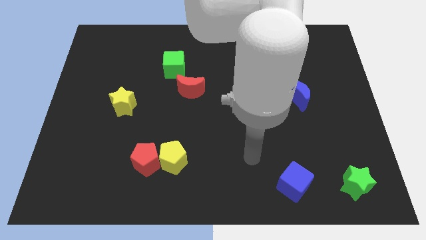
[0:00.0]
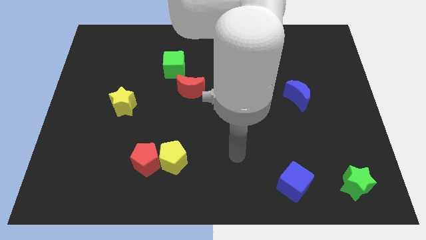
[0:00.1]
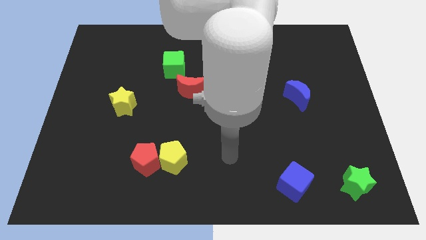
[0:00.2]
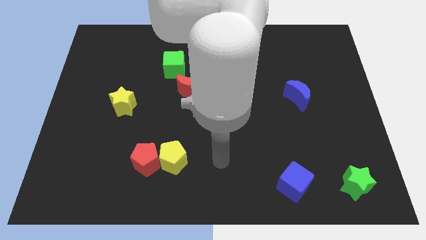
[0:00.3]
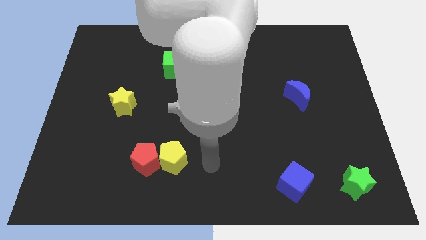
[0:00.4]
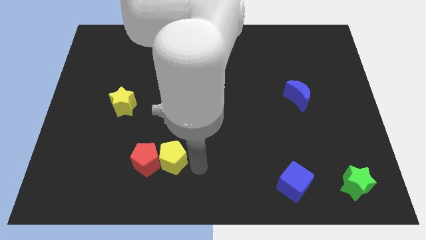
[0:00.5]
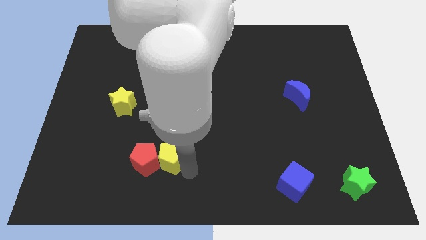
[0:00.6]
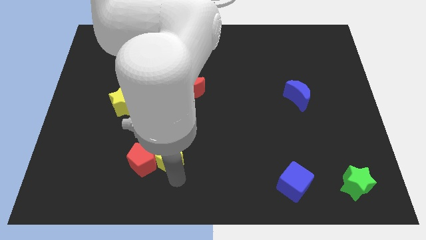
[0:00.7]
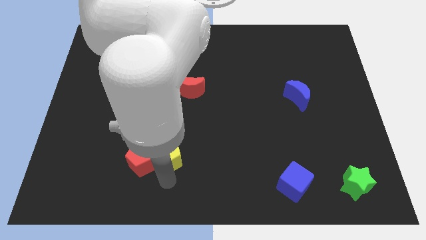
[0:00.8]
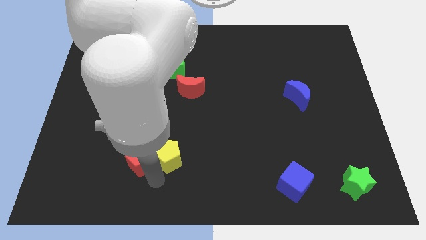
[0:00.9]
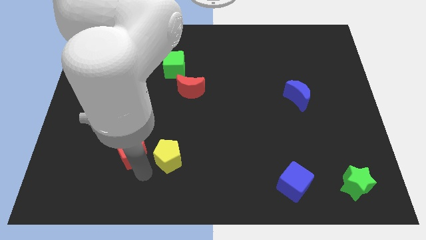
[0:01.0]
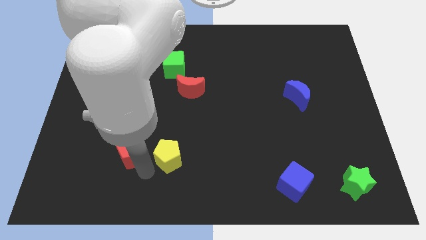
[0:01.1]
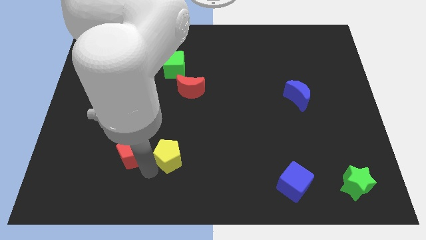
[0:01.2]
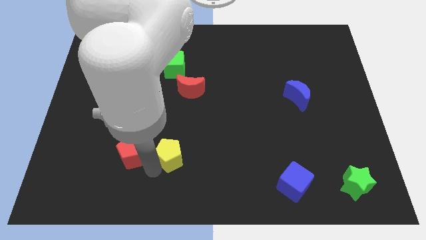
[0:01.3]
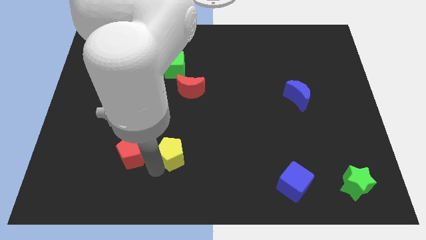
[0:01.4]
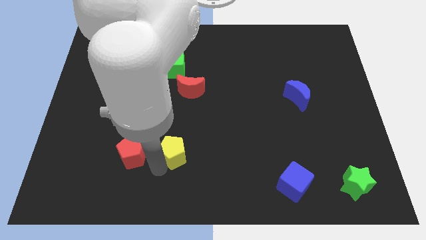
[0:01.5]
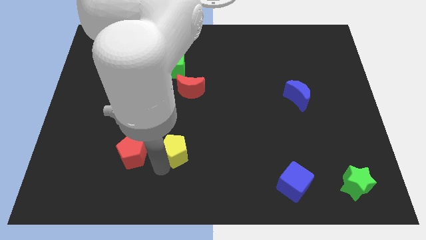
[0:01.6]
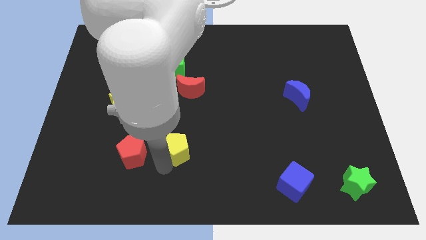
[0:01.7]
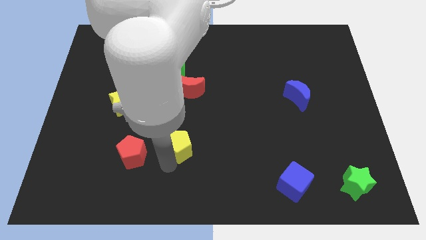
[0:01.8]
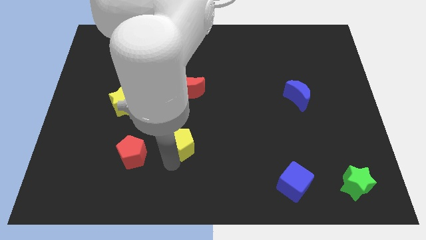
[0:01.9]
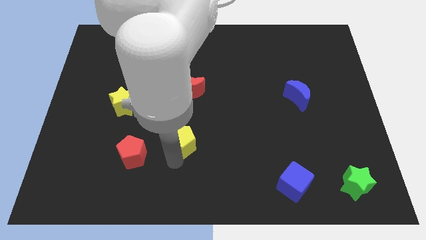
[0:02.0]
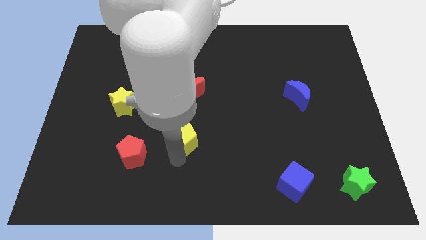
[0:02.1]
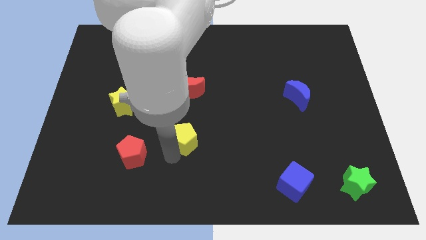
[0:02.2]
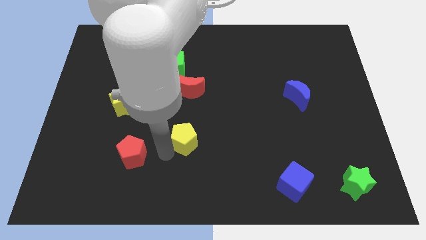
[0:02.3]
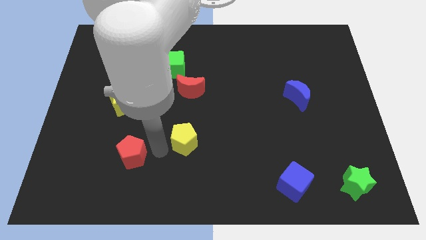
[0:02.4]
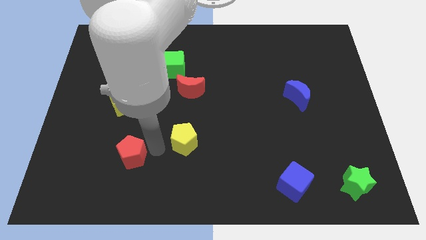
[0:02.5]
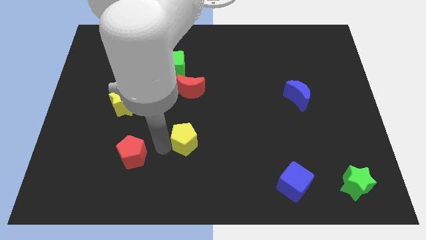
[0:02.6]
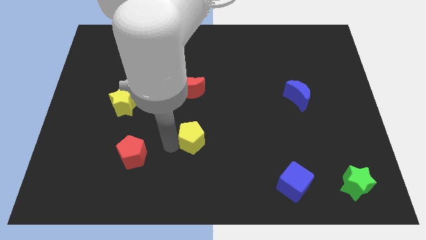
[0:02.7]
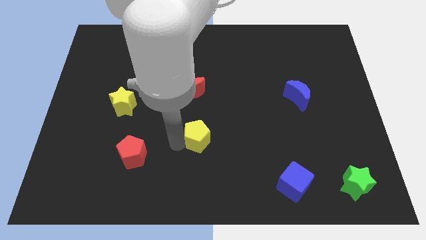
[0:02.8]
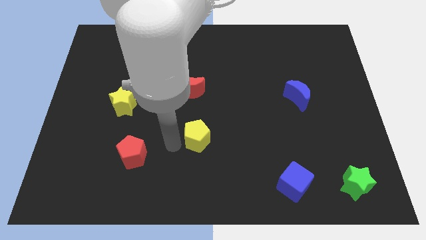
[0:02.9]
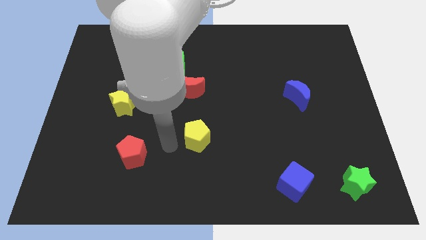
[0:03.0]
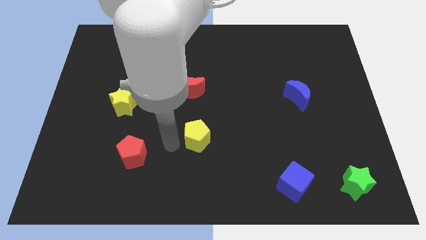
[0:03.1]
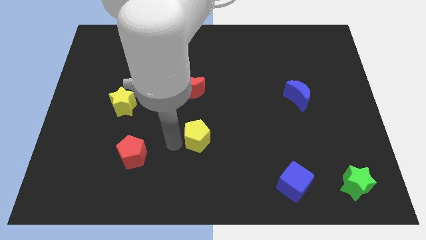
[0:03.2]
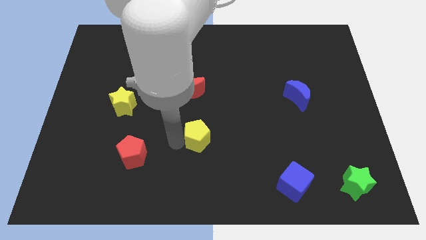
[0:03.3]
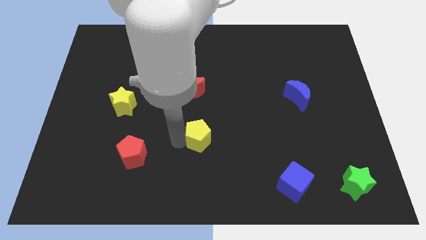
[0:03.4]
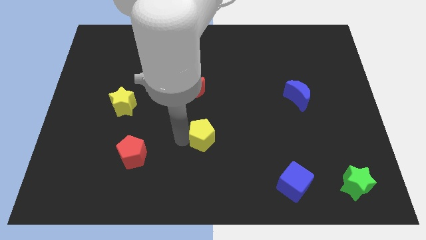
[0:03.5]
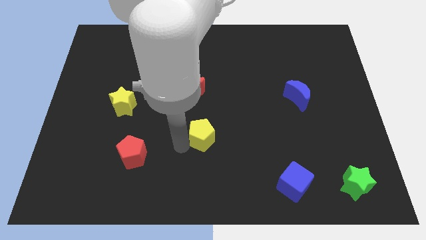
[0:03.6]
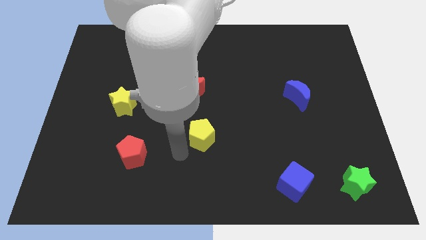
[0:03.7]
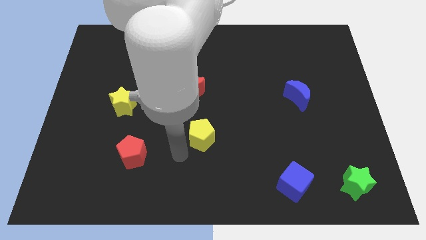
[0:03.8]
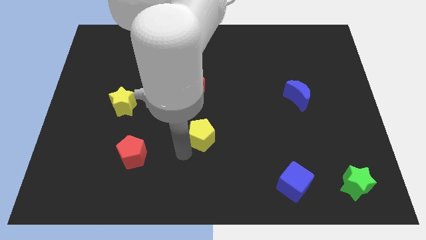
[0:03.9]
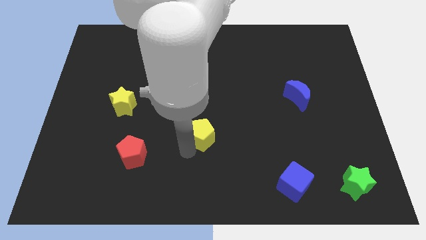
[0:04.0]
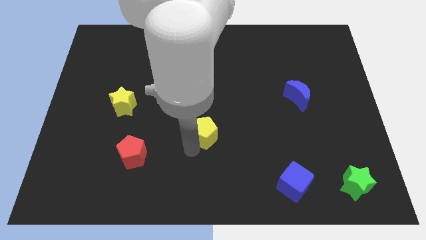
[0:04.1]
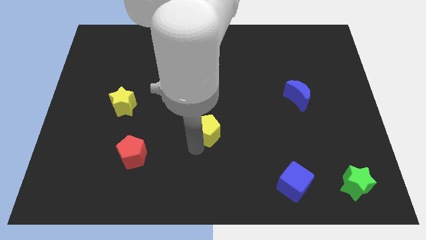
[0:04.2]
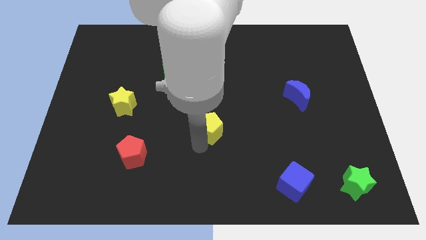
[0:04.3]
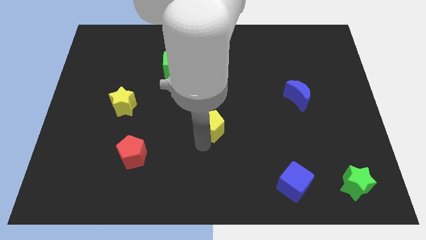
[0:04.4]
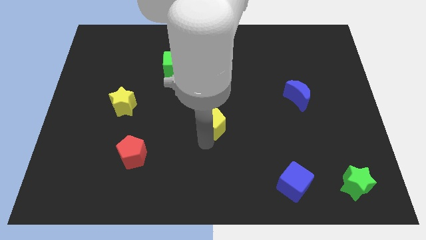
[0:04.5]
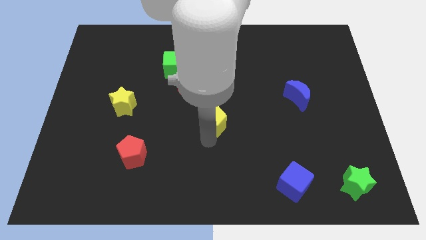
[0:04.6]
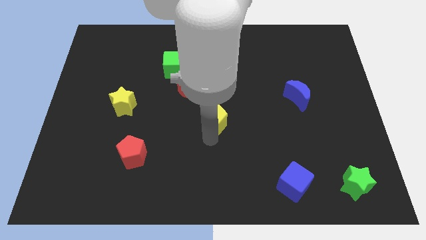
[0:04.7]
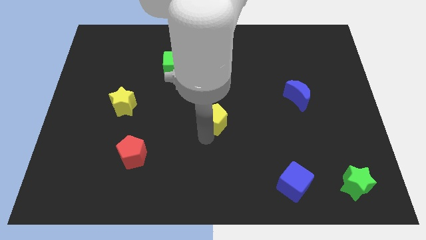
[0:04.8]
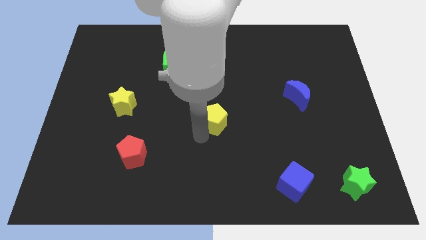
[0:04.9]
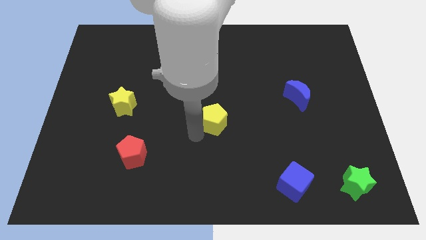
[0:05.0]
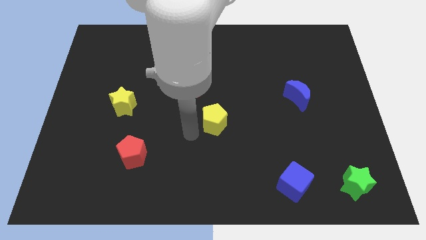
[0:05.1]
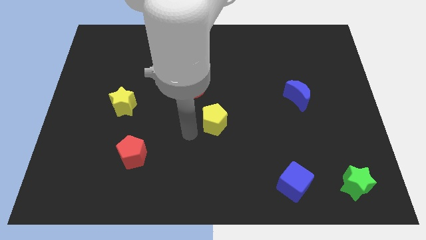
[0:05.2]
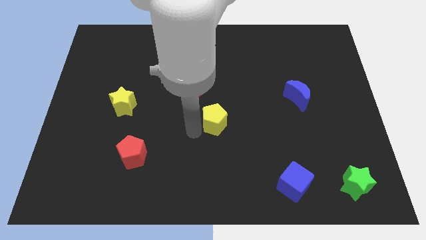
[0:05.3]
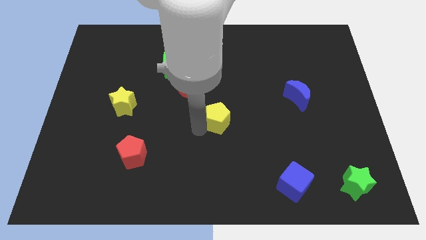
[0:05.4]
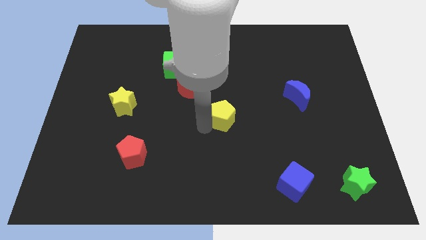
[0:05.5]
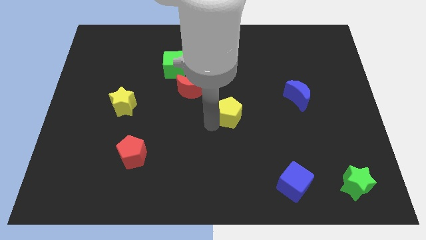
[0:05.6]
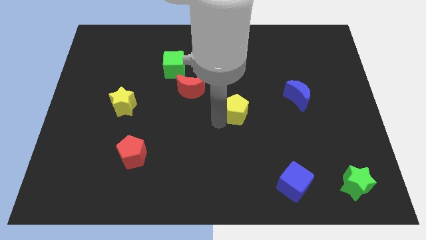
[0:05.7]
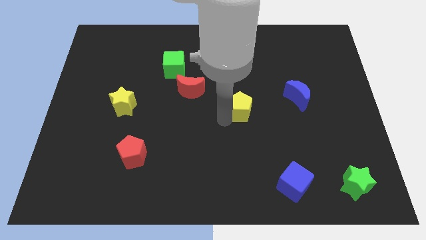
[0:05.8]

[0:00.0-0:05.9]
slide the yellow pentagon upwards and right diagonally

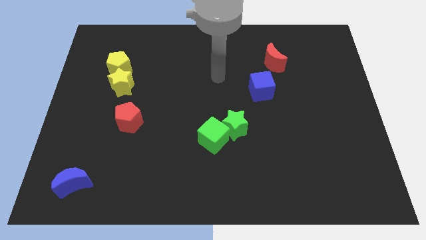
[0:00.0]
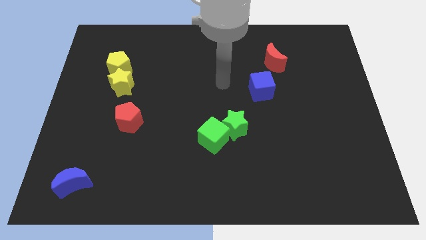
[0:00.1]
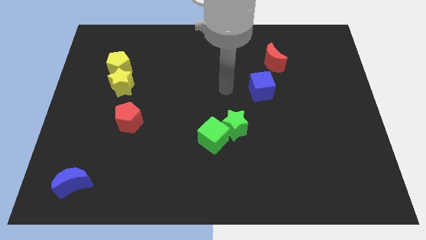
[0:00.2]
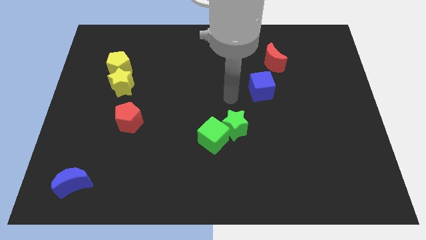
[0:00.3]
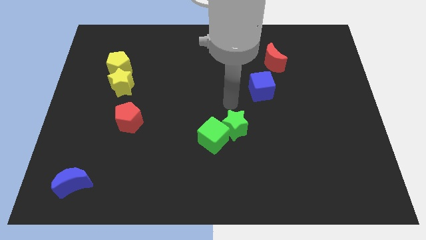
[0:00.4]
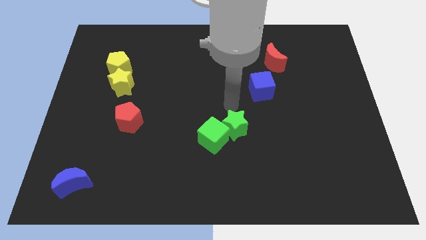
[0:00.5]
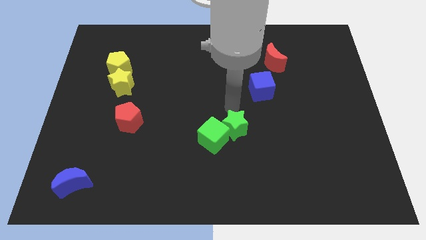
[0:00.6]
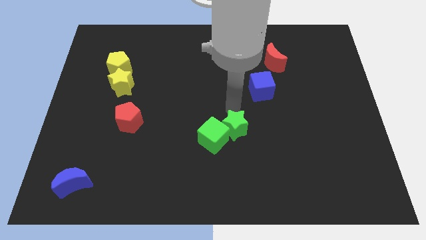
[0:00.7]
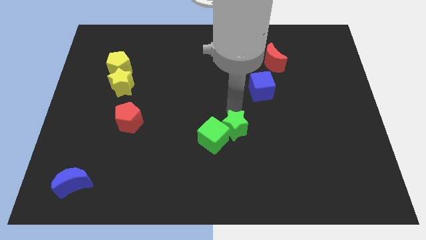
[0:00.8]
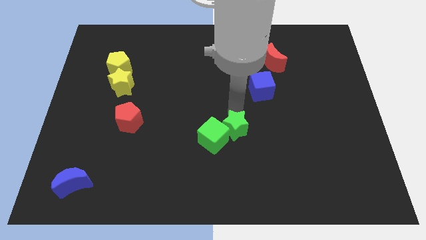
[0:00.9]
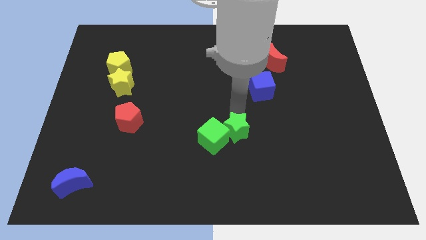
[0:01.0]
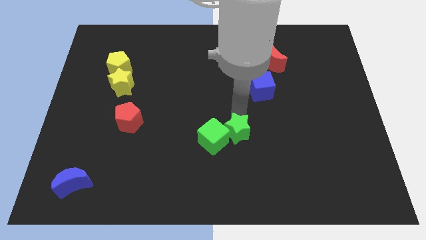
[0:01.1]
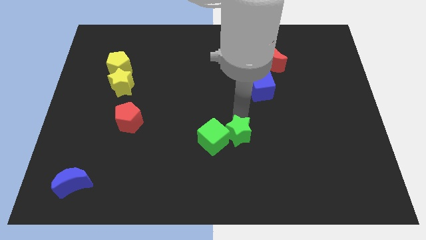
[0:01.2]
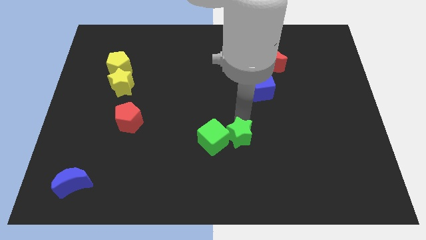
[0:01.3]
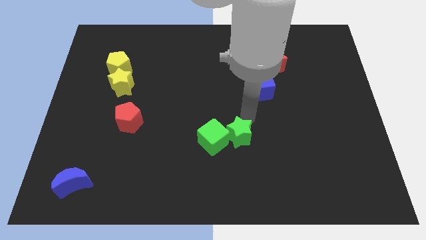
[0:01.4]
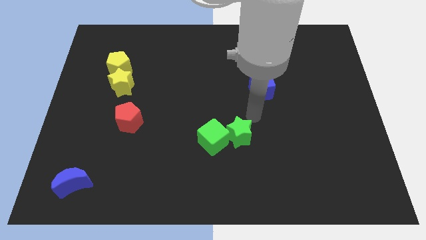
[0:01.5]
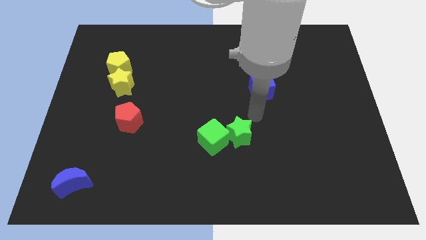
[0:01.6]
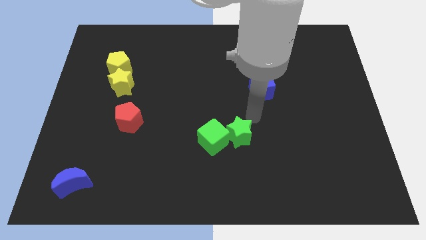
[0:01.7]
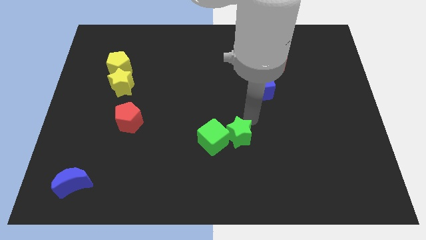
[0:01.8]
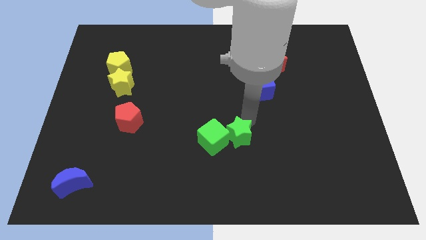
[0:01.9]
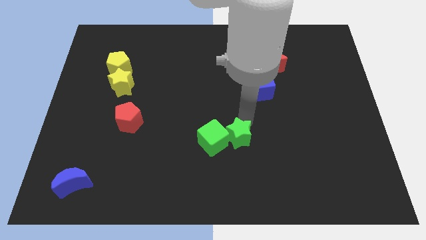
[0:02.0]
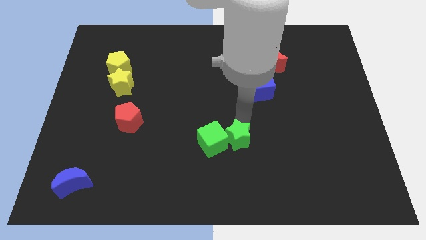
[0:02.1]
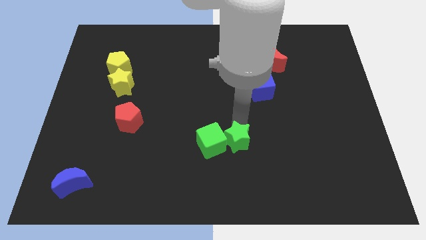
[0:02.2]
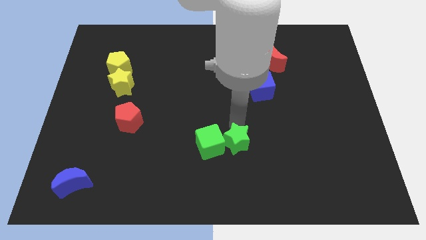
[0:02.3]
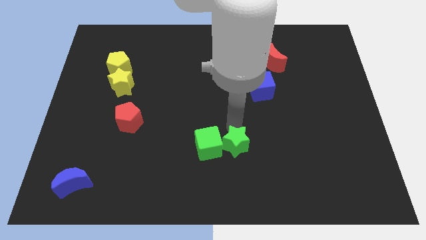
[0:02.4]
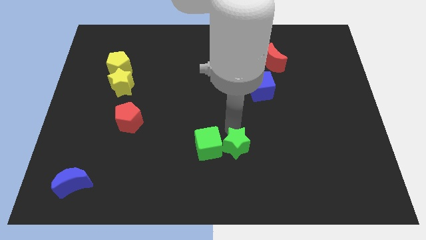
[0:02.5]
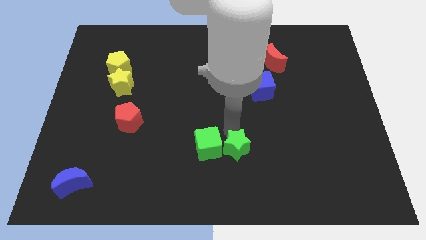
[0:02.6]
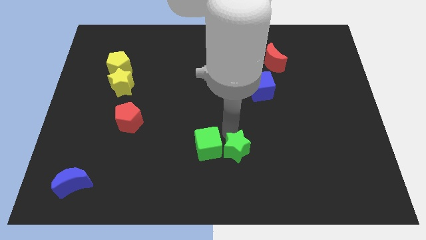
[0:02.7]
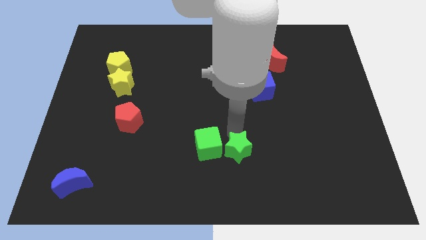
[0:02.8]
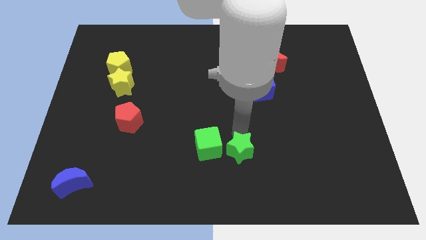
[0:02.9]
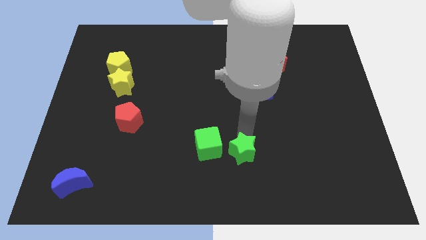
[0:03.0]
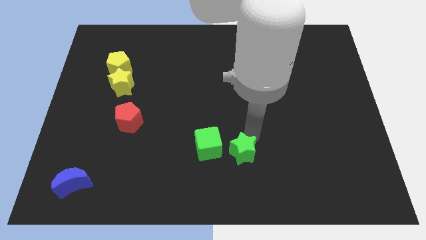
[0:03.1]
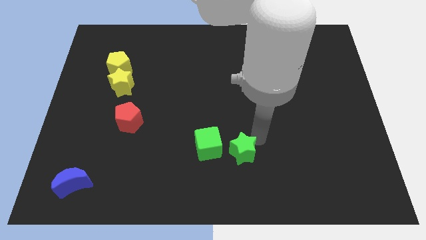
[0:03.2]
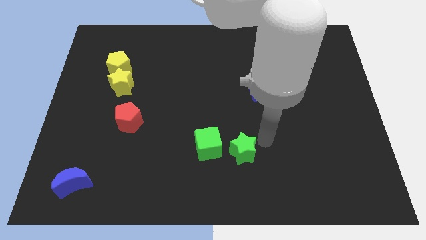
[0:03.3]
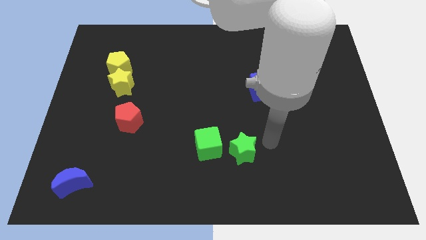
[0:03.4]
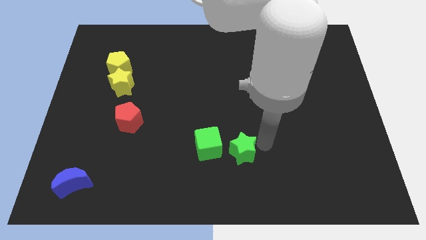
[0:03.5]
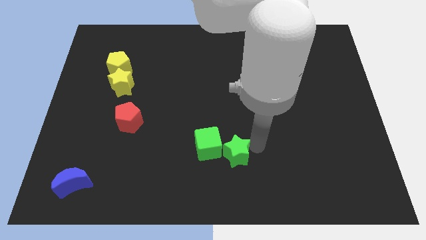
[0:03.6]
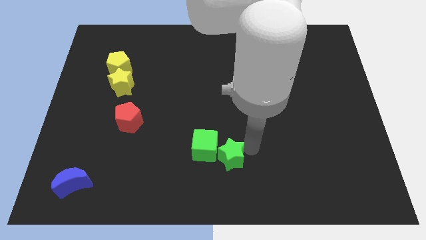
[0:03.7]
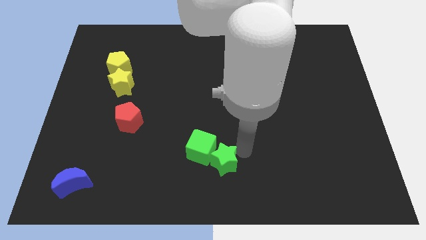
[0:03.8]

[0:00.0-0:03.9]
push the green star downwards and to the left diagonally slightly
